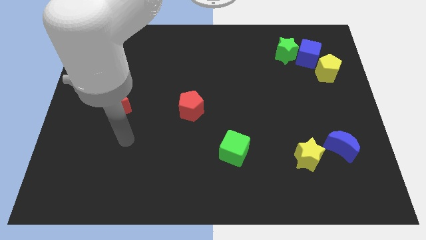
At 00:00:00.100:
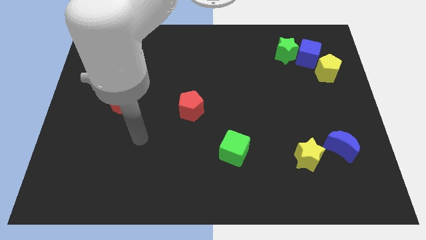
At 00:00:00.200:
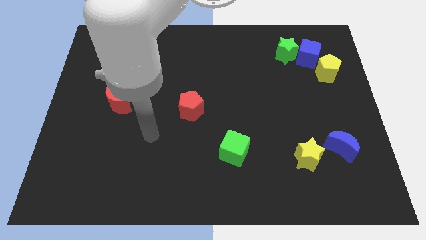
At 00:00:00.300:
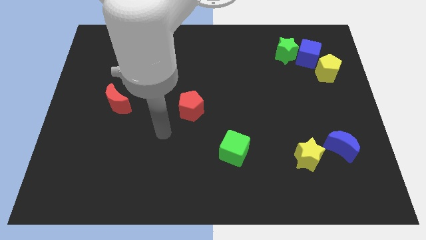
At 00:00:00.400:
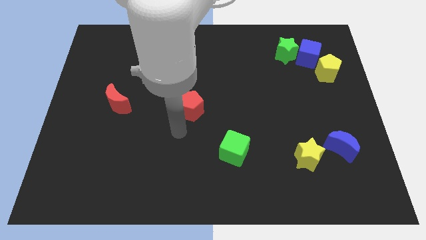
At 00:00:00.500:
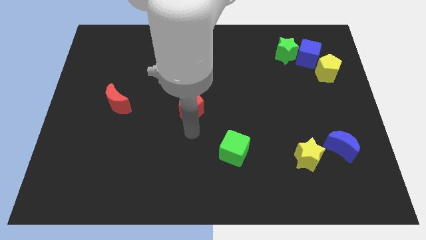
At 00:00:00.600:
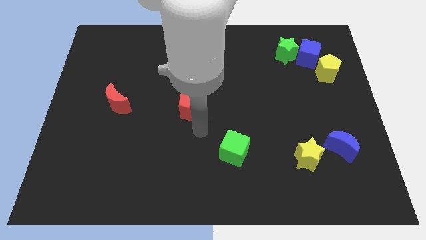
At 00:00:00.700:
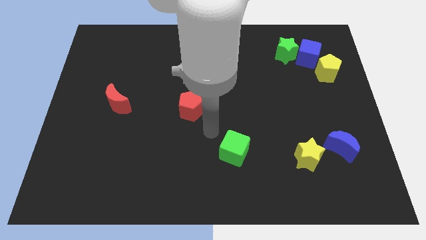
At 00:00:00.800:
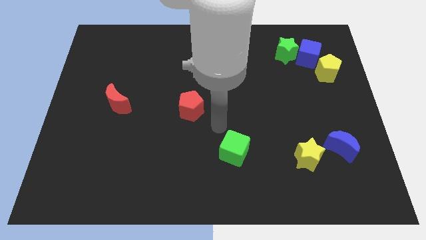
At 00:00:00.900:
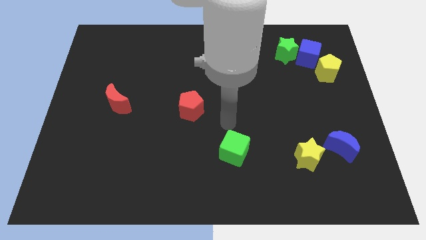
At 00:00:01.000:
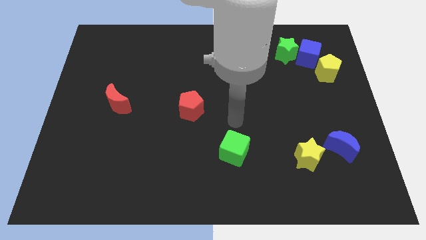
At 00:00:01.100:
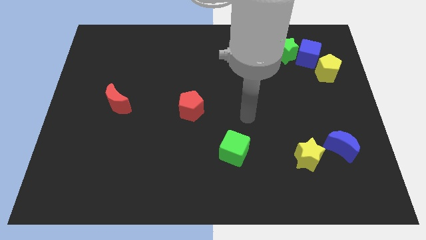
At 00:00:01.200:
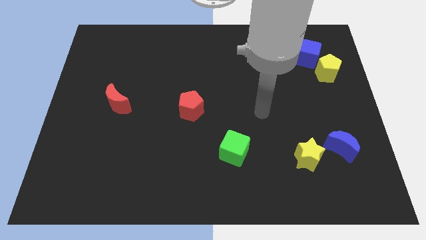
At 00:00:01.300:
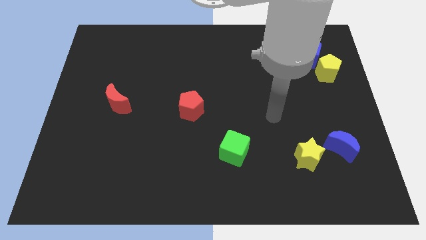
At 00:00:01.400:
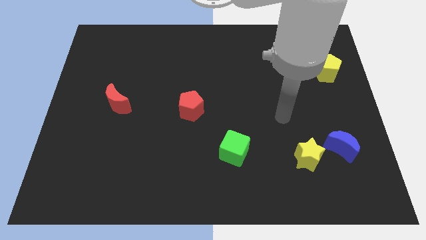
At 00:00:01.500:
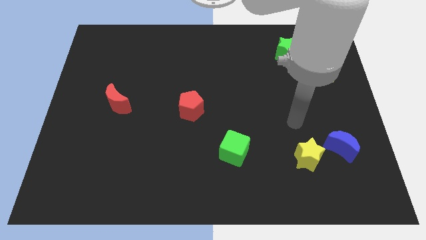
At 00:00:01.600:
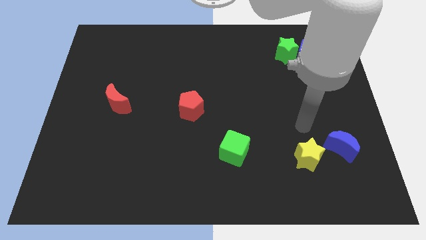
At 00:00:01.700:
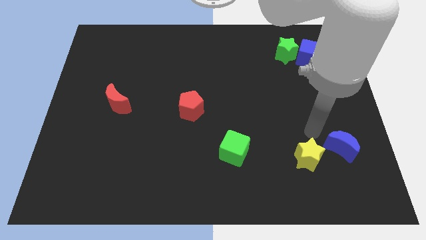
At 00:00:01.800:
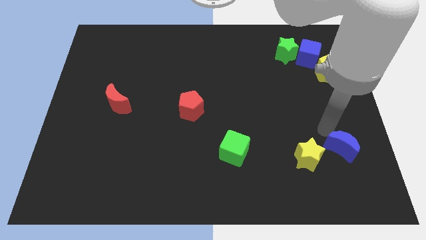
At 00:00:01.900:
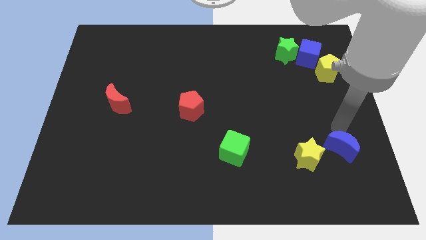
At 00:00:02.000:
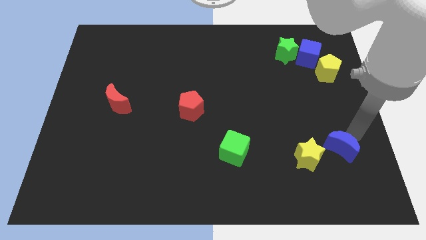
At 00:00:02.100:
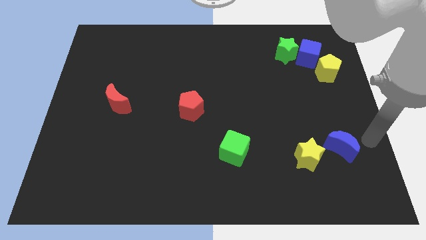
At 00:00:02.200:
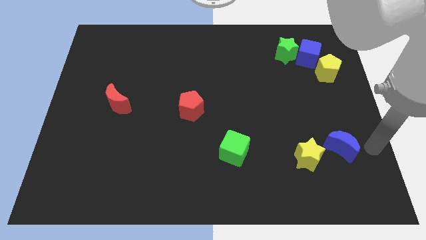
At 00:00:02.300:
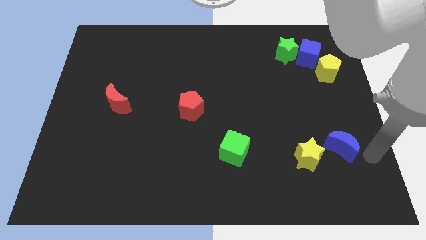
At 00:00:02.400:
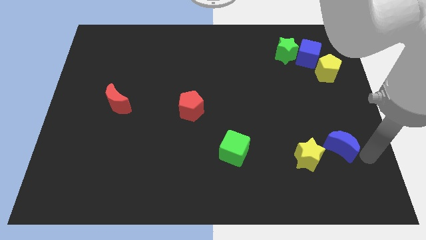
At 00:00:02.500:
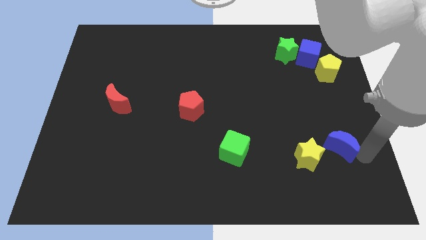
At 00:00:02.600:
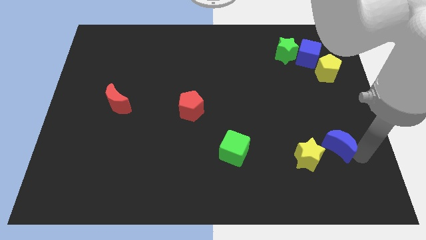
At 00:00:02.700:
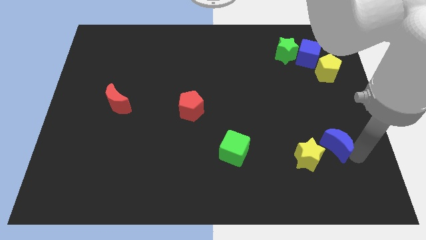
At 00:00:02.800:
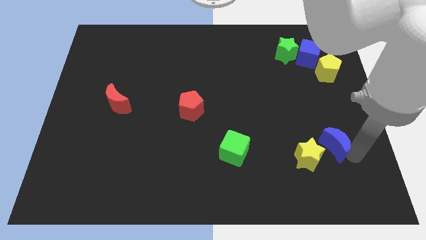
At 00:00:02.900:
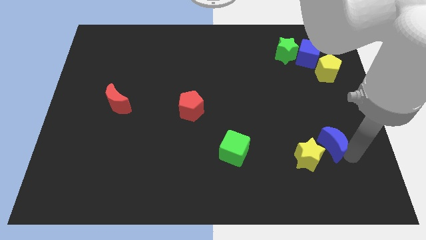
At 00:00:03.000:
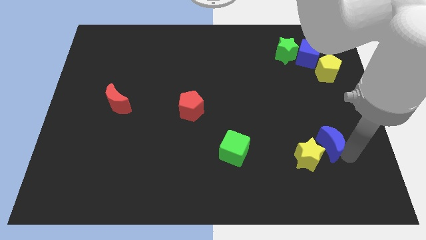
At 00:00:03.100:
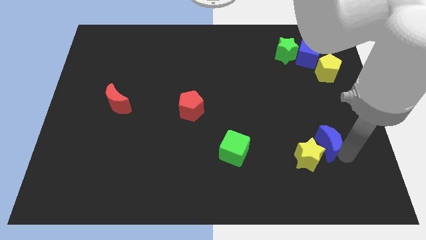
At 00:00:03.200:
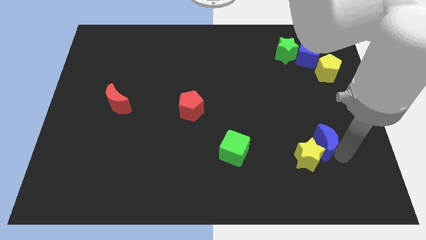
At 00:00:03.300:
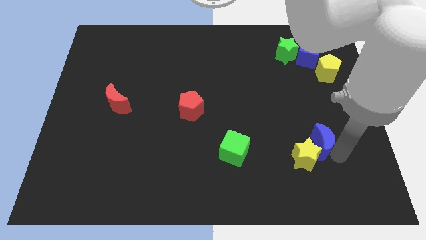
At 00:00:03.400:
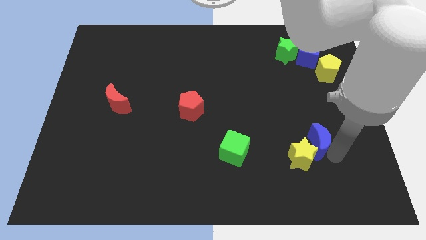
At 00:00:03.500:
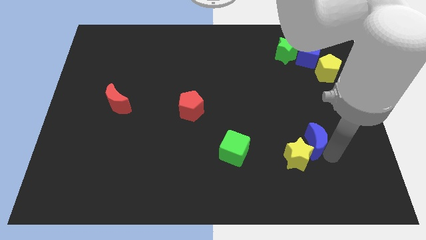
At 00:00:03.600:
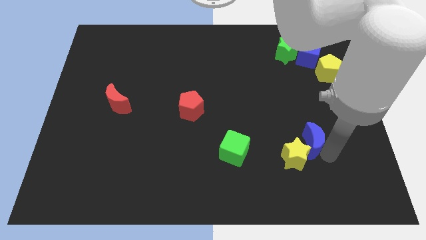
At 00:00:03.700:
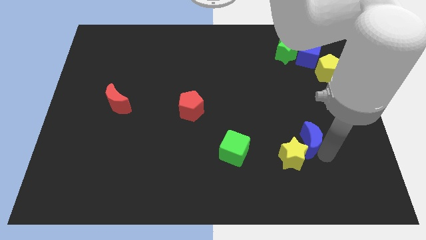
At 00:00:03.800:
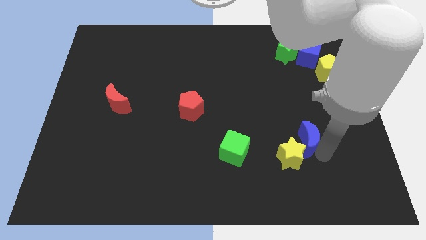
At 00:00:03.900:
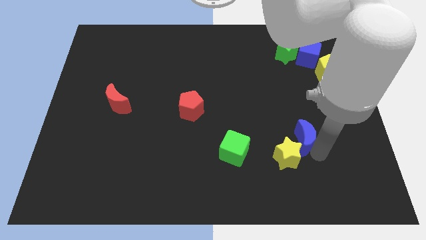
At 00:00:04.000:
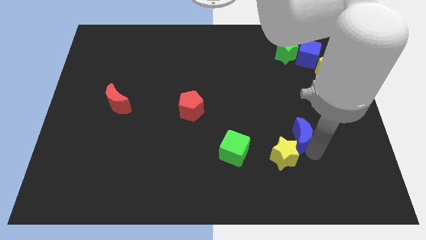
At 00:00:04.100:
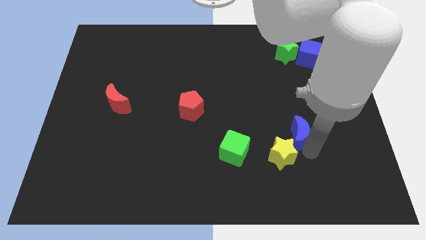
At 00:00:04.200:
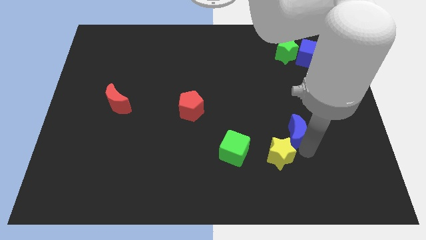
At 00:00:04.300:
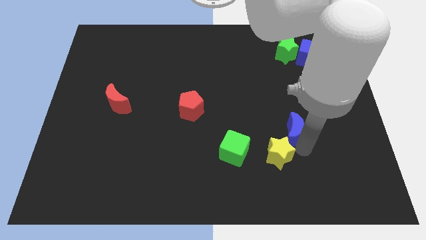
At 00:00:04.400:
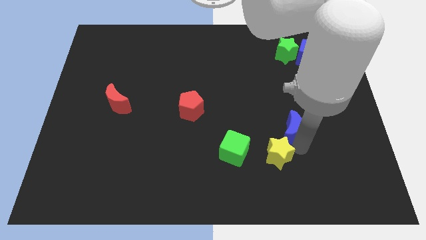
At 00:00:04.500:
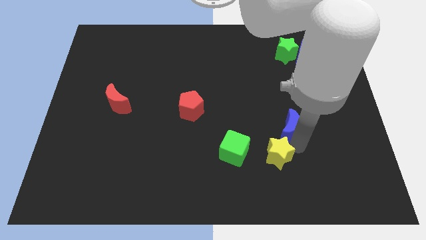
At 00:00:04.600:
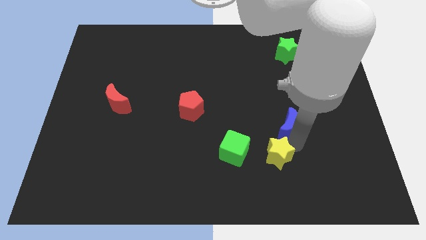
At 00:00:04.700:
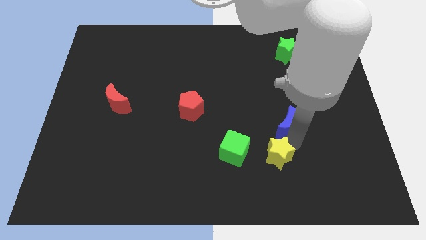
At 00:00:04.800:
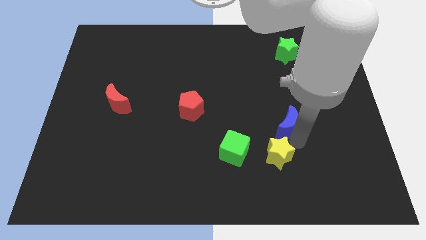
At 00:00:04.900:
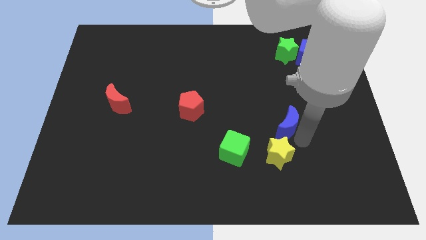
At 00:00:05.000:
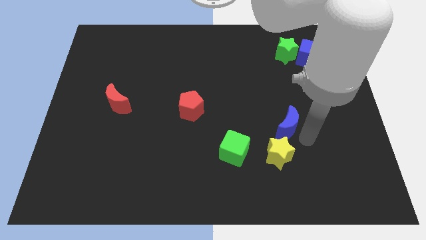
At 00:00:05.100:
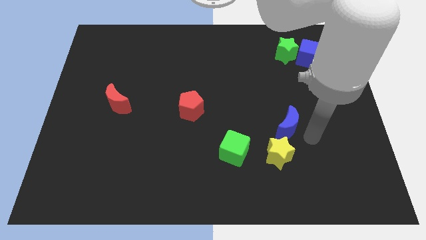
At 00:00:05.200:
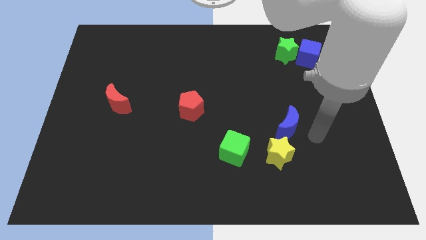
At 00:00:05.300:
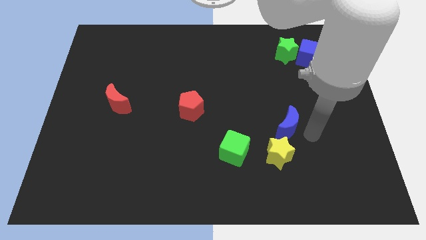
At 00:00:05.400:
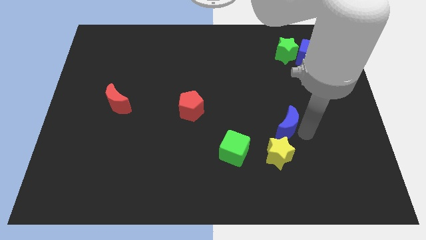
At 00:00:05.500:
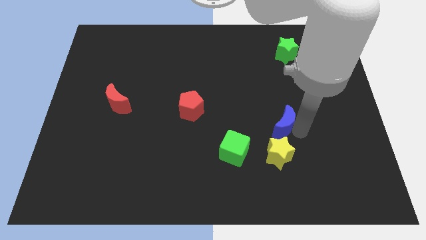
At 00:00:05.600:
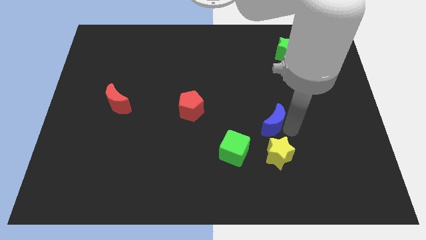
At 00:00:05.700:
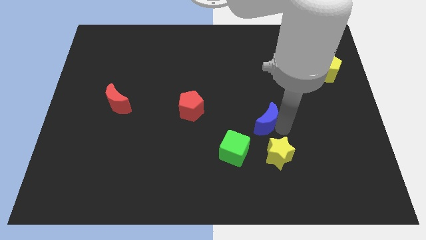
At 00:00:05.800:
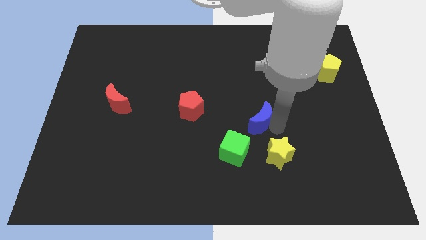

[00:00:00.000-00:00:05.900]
slide the blue moon to the middle

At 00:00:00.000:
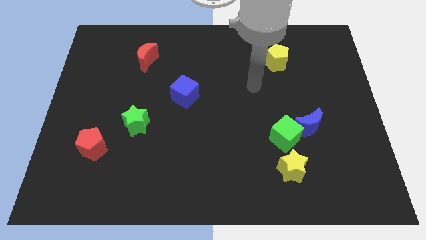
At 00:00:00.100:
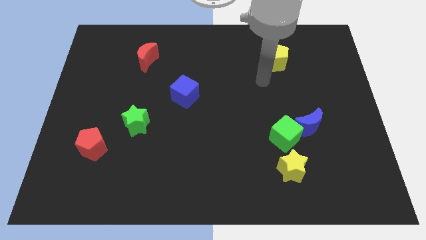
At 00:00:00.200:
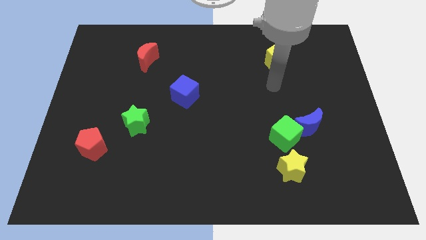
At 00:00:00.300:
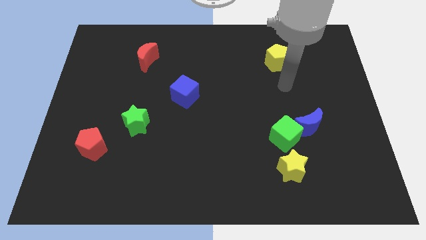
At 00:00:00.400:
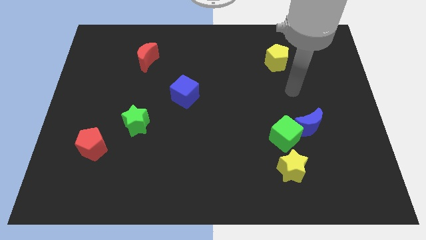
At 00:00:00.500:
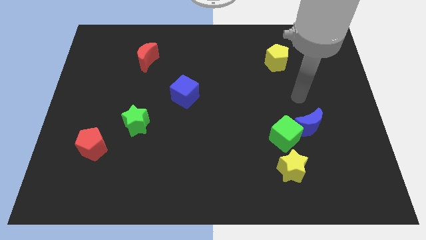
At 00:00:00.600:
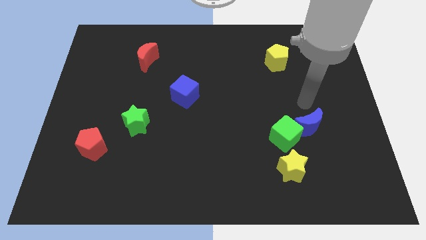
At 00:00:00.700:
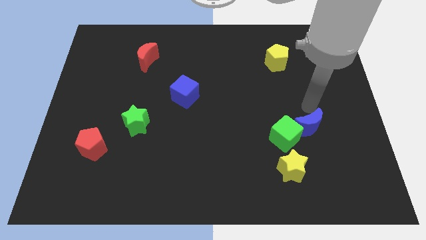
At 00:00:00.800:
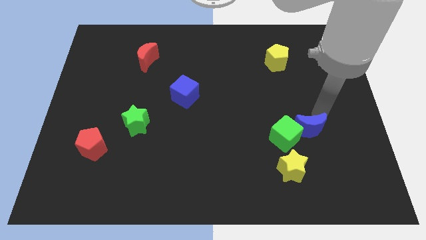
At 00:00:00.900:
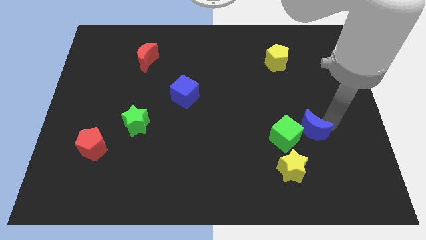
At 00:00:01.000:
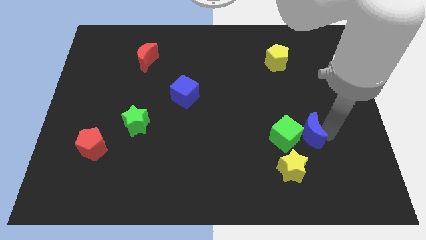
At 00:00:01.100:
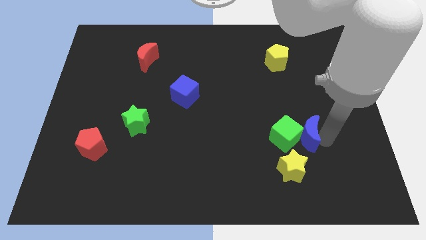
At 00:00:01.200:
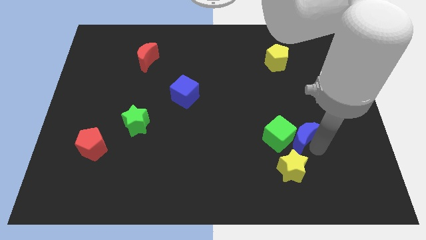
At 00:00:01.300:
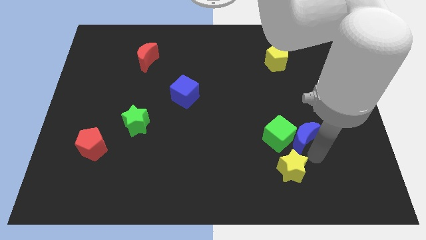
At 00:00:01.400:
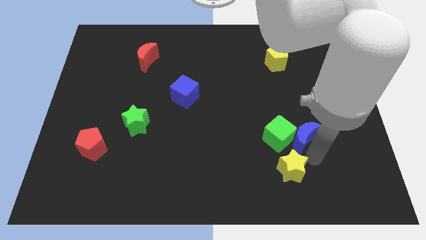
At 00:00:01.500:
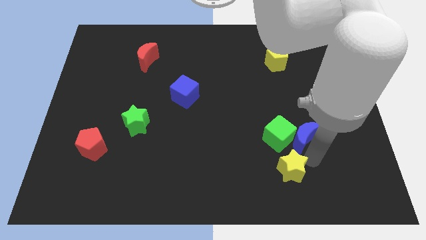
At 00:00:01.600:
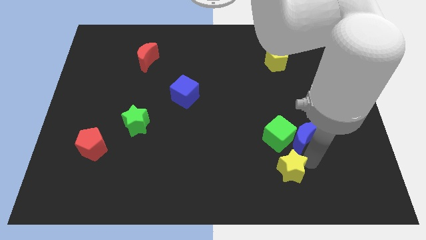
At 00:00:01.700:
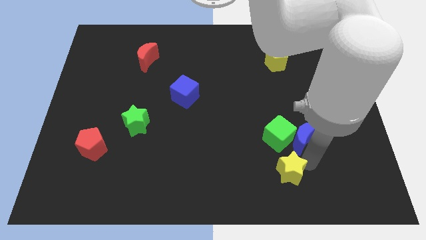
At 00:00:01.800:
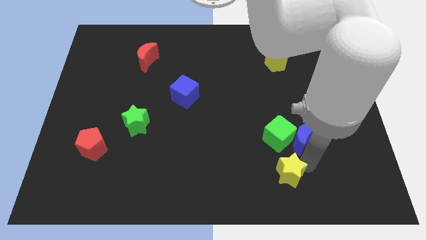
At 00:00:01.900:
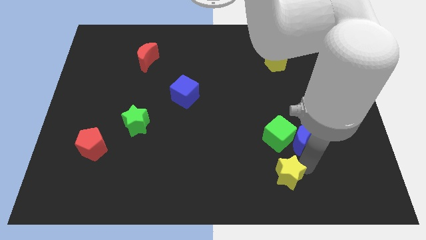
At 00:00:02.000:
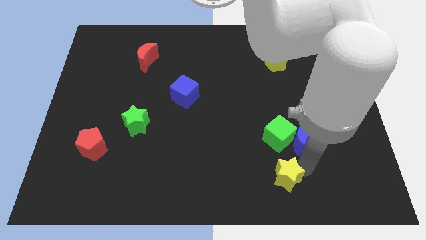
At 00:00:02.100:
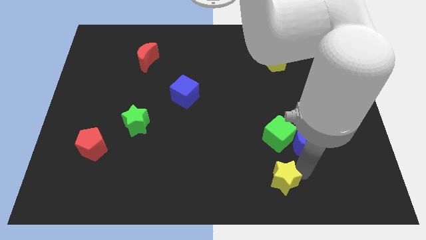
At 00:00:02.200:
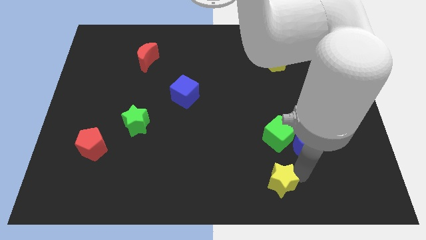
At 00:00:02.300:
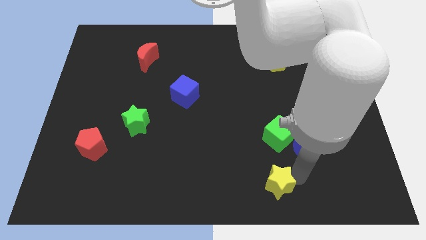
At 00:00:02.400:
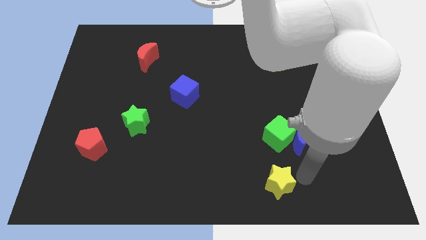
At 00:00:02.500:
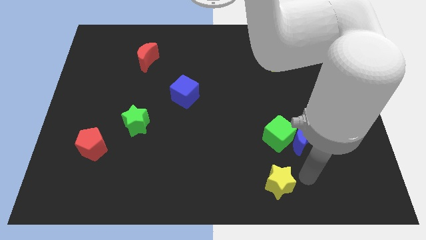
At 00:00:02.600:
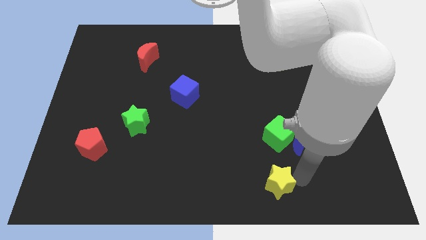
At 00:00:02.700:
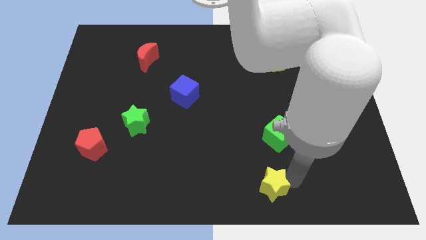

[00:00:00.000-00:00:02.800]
push the yellow star to the bottom
